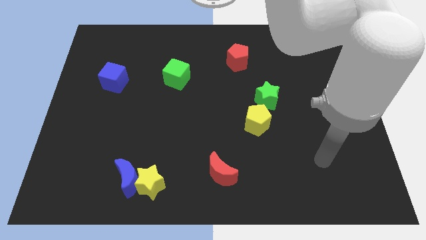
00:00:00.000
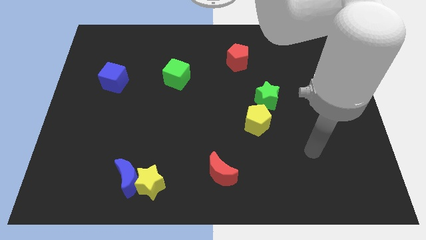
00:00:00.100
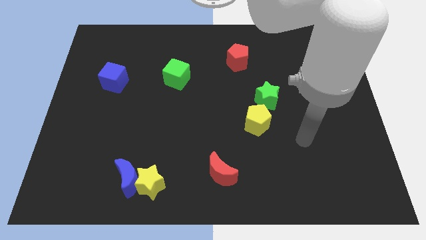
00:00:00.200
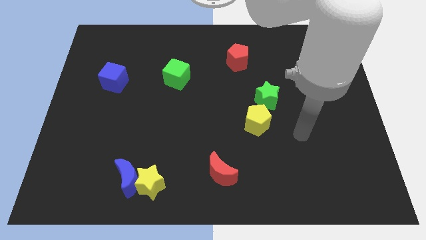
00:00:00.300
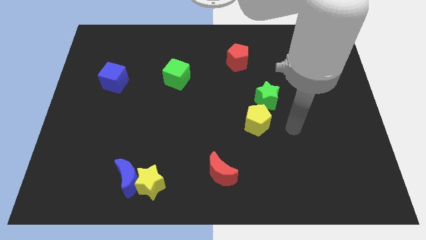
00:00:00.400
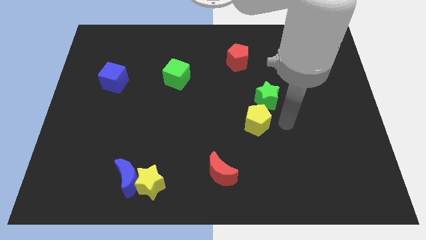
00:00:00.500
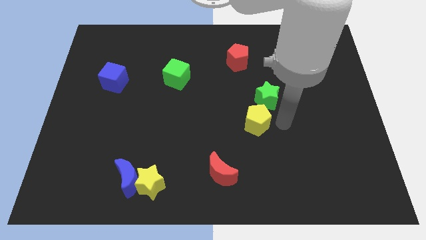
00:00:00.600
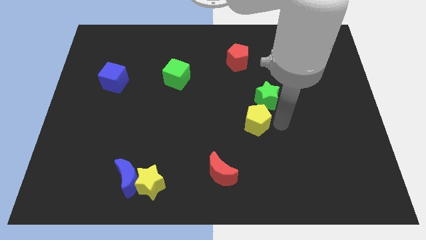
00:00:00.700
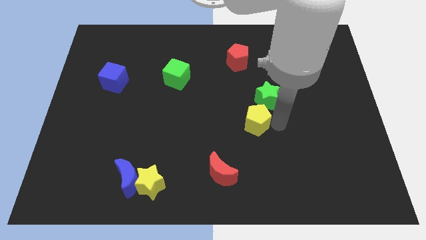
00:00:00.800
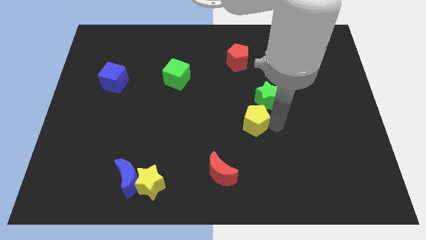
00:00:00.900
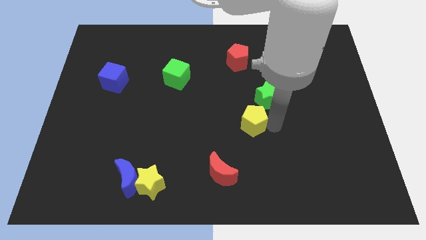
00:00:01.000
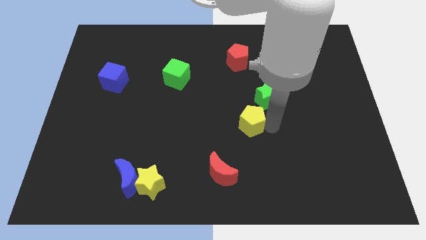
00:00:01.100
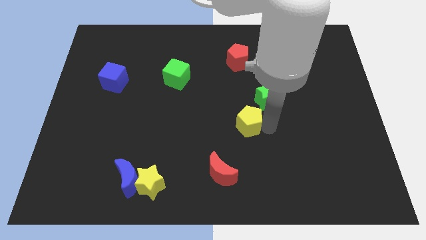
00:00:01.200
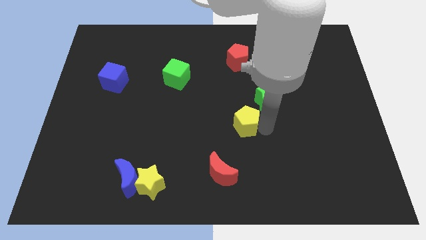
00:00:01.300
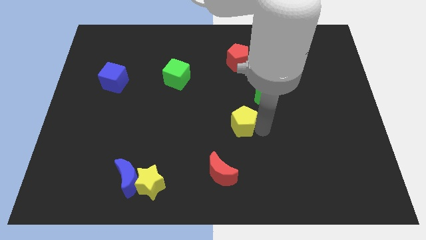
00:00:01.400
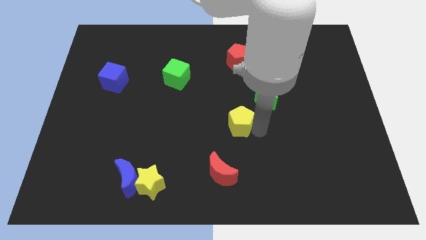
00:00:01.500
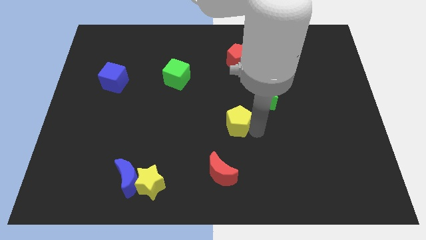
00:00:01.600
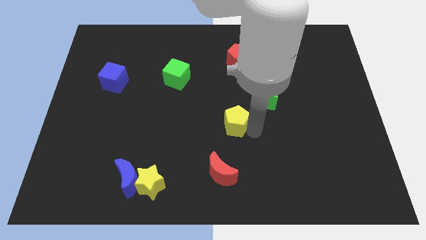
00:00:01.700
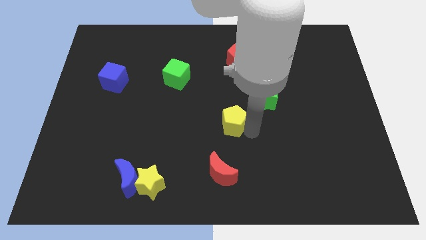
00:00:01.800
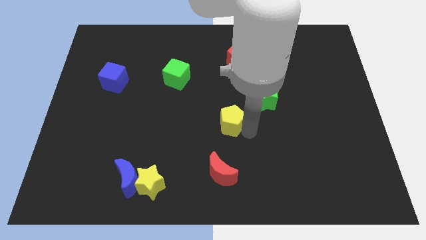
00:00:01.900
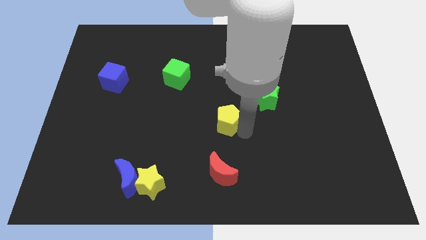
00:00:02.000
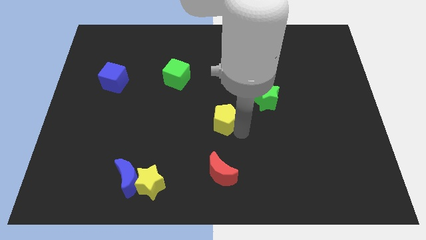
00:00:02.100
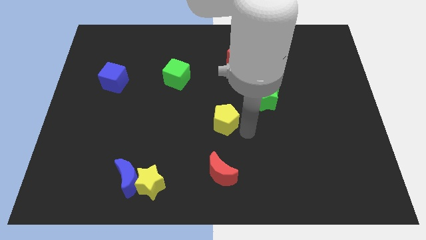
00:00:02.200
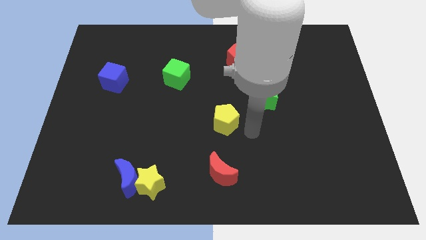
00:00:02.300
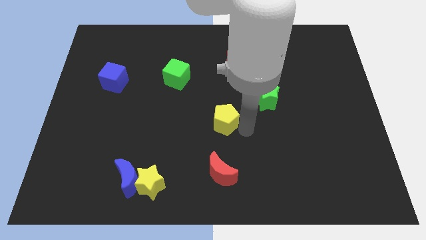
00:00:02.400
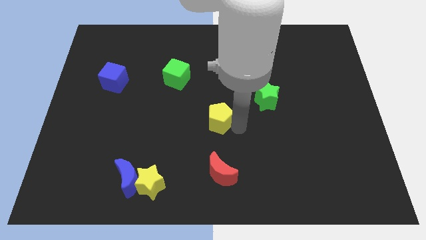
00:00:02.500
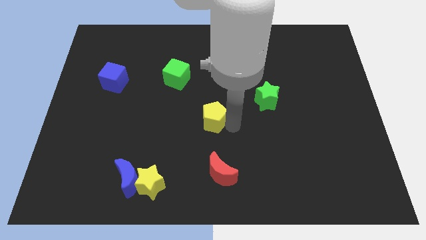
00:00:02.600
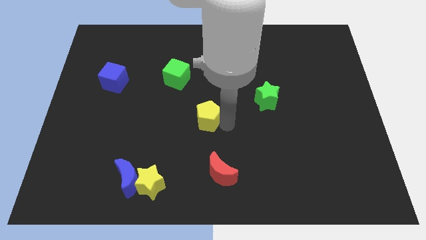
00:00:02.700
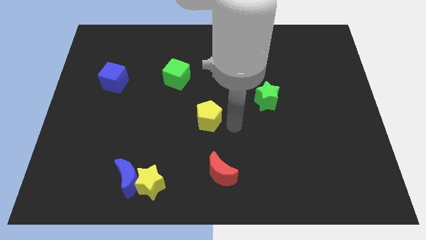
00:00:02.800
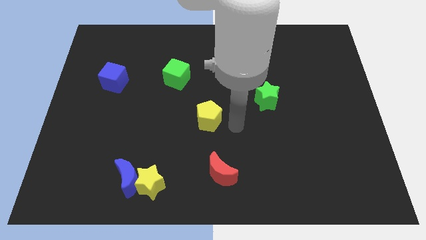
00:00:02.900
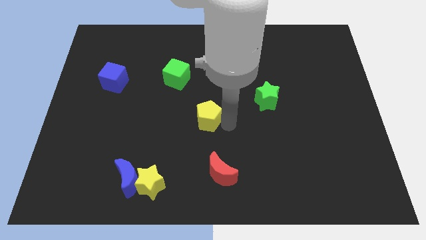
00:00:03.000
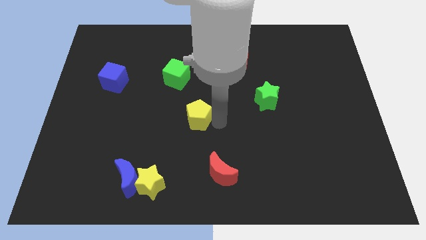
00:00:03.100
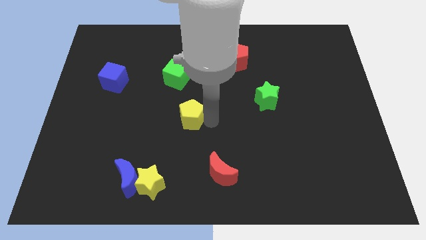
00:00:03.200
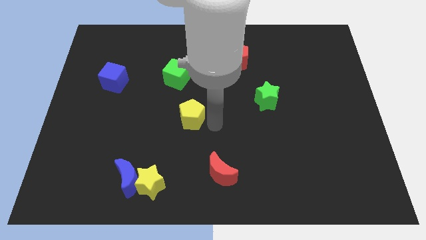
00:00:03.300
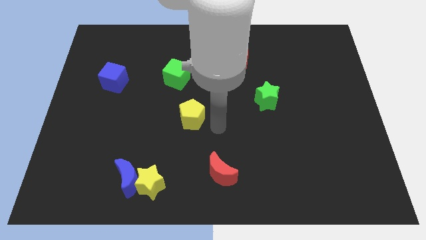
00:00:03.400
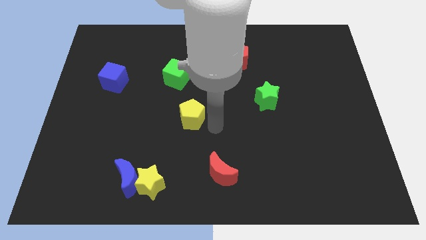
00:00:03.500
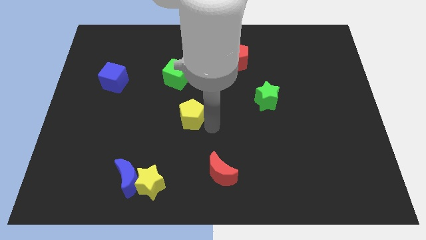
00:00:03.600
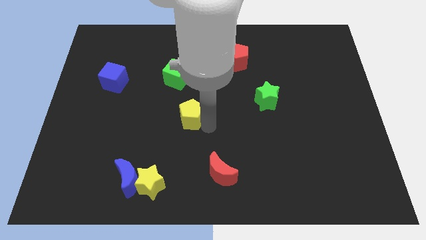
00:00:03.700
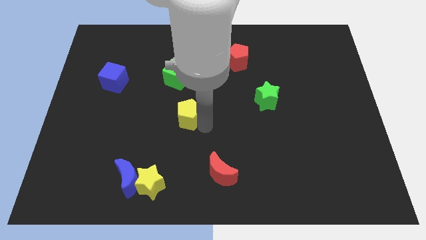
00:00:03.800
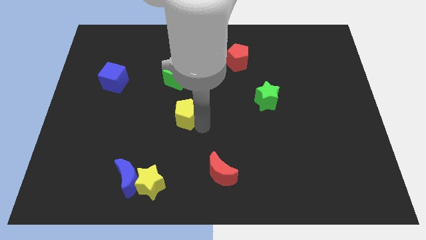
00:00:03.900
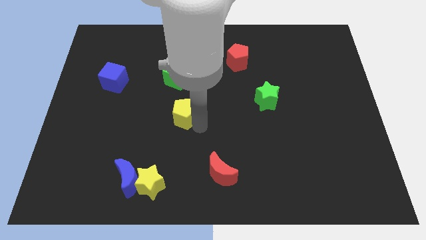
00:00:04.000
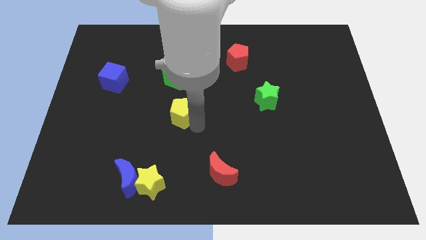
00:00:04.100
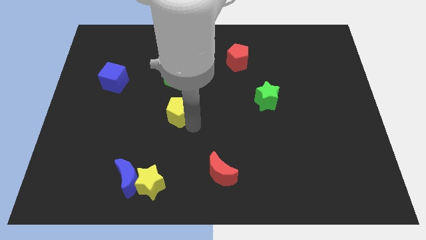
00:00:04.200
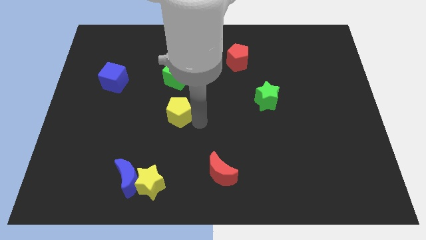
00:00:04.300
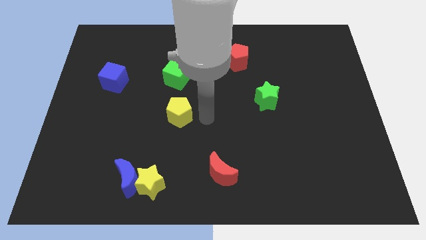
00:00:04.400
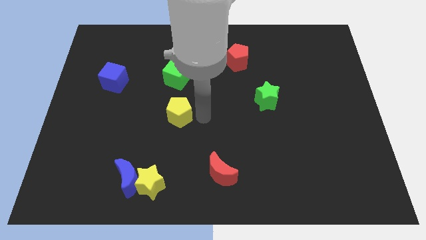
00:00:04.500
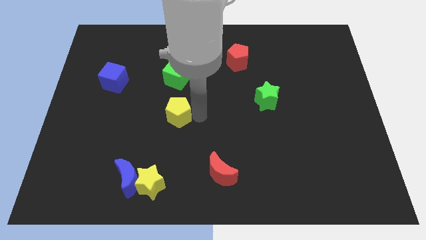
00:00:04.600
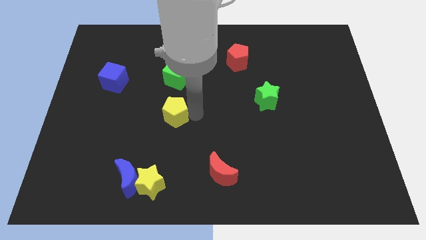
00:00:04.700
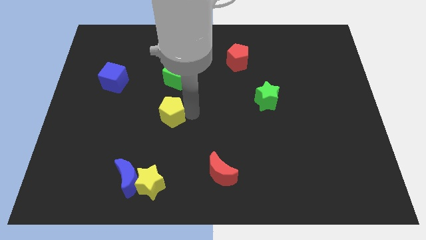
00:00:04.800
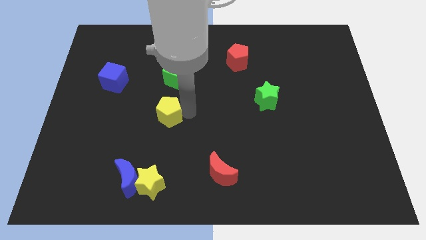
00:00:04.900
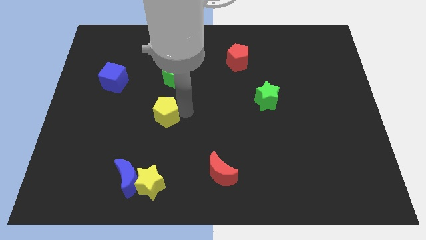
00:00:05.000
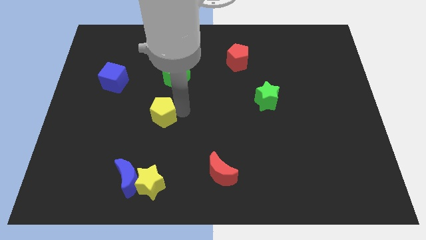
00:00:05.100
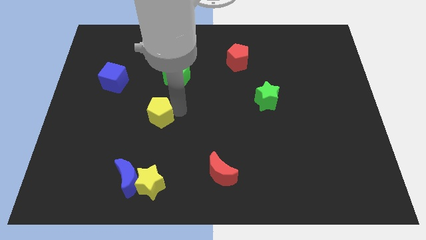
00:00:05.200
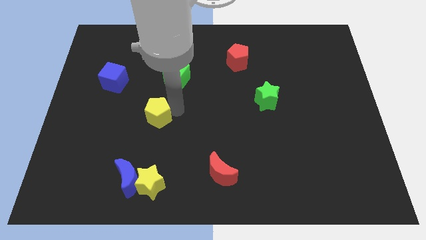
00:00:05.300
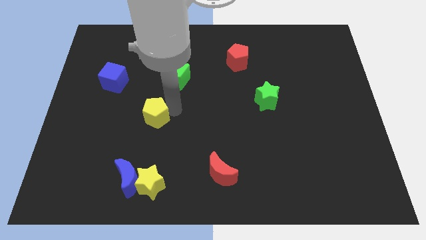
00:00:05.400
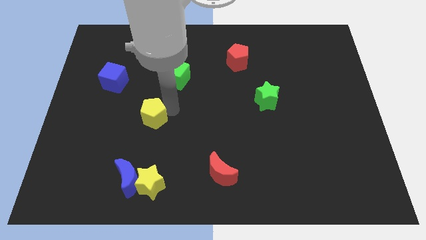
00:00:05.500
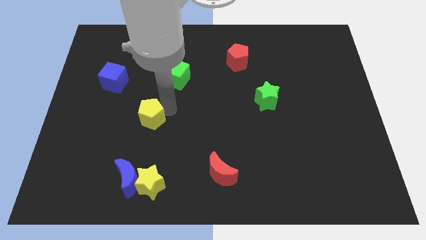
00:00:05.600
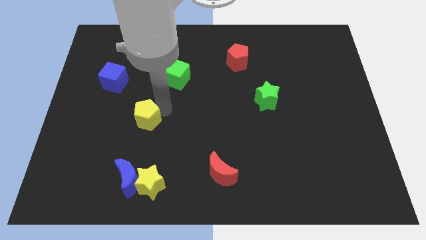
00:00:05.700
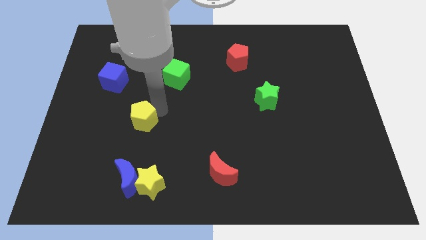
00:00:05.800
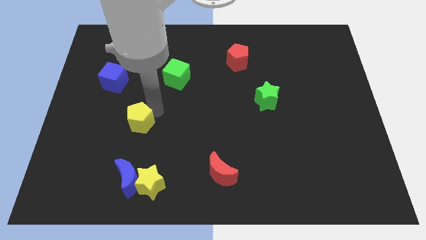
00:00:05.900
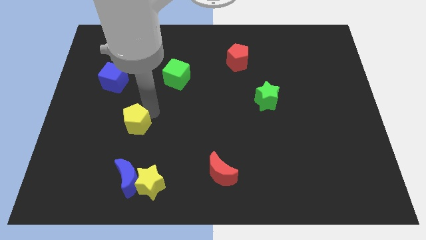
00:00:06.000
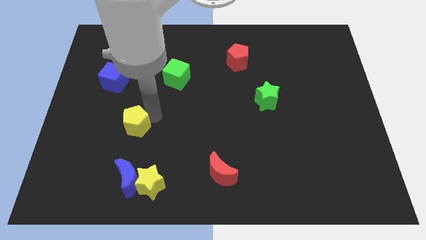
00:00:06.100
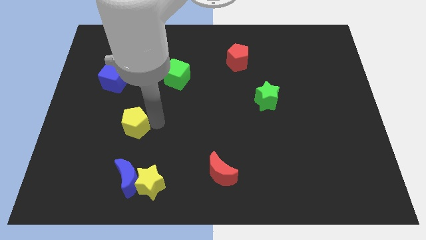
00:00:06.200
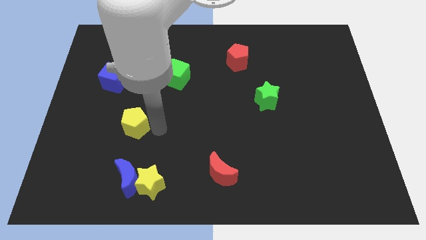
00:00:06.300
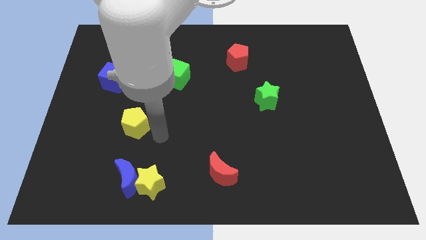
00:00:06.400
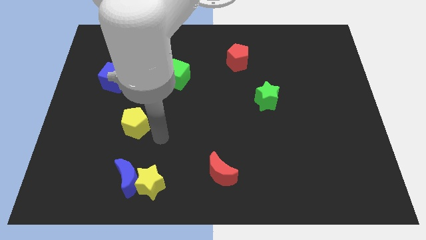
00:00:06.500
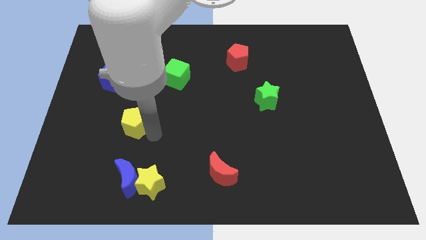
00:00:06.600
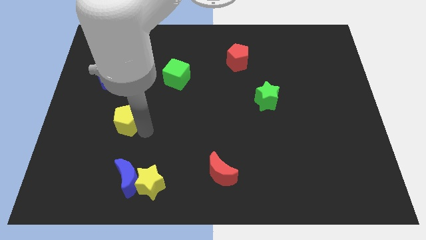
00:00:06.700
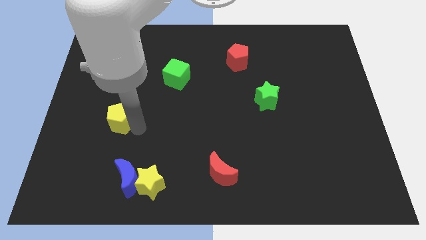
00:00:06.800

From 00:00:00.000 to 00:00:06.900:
slide the yellow pentagon to the bottom side of the blue cube
